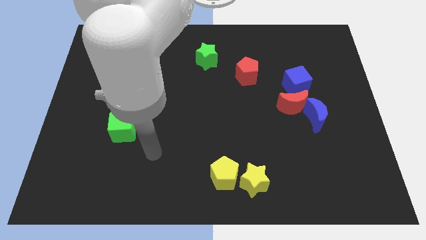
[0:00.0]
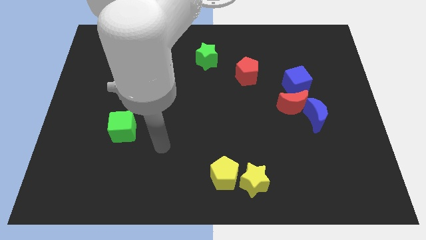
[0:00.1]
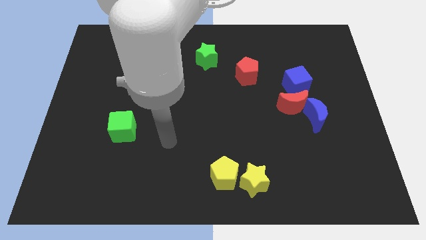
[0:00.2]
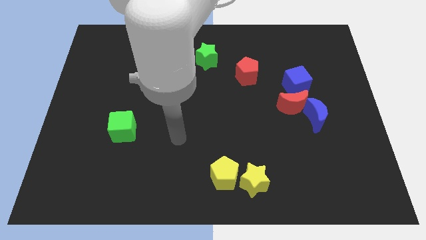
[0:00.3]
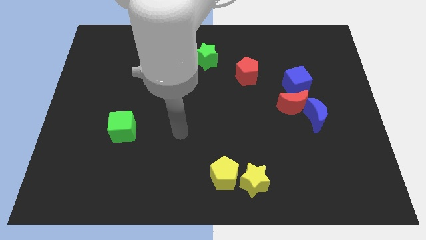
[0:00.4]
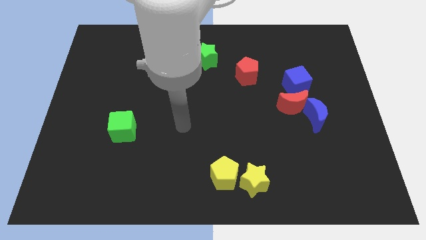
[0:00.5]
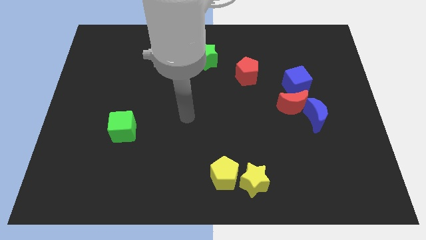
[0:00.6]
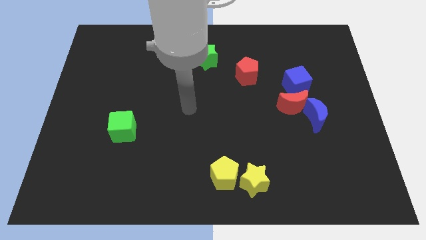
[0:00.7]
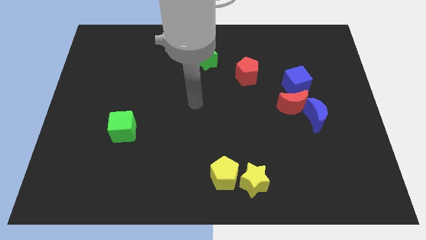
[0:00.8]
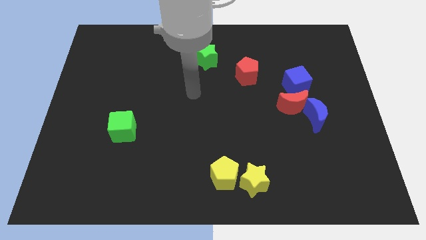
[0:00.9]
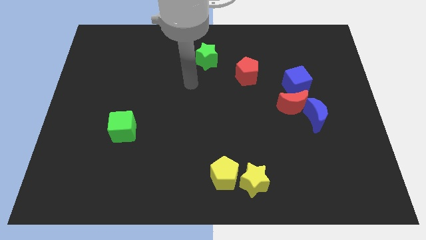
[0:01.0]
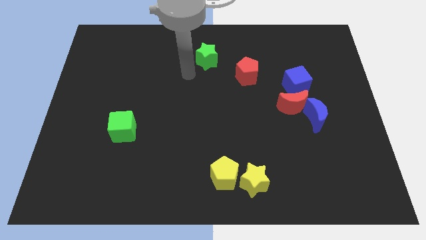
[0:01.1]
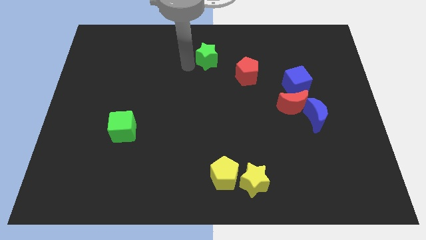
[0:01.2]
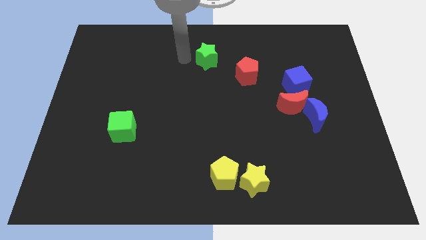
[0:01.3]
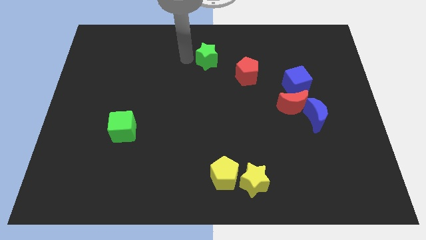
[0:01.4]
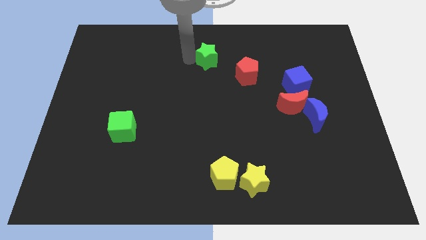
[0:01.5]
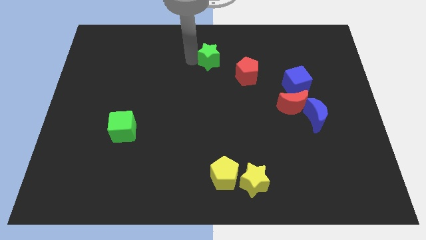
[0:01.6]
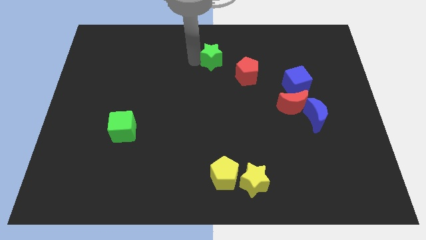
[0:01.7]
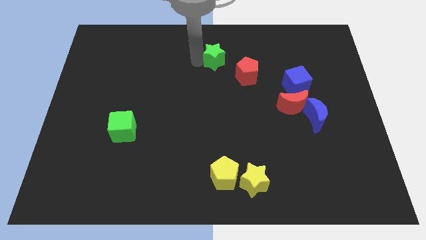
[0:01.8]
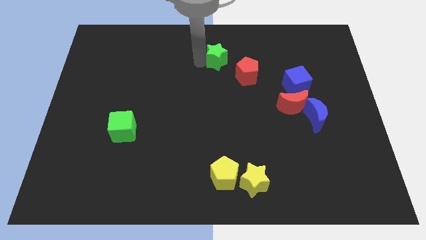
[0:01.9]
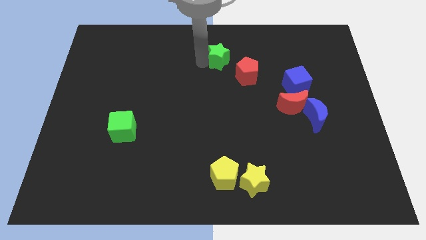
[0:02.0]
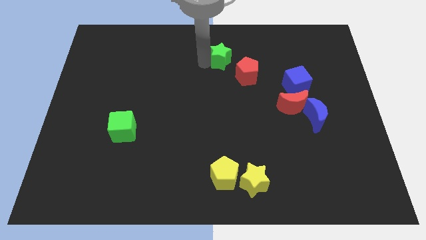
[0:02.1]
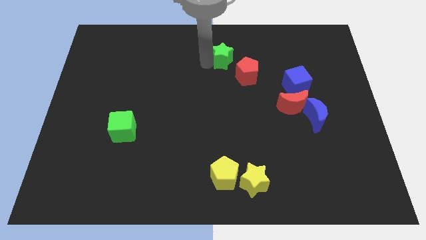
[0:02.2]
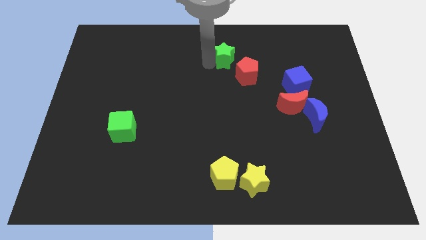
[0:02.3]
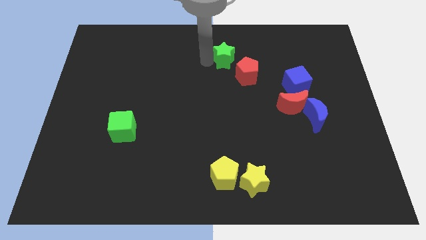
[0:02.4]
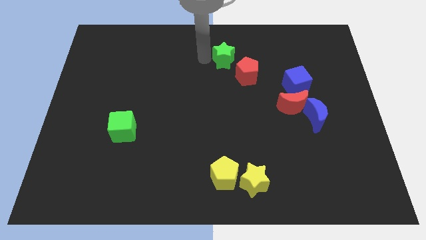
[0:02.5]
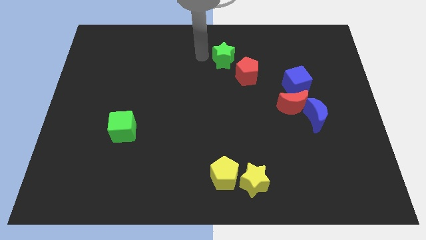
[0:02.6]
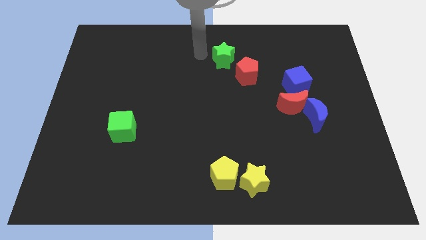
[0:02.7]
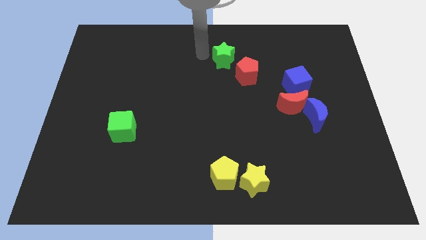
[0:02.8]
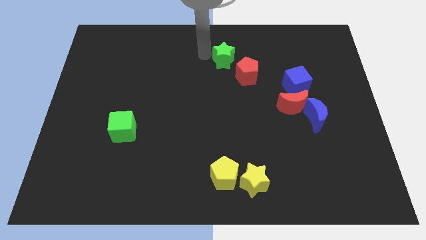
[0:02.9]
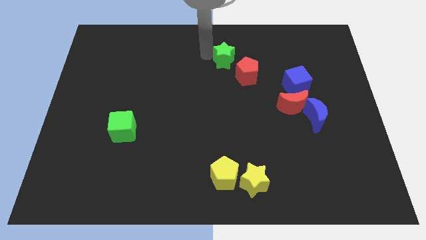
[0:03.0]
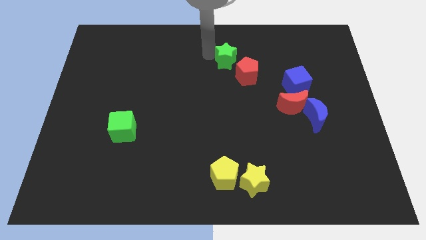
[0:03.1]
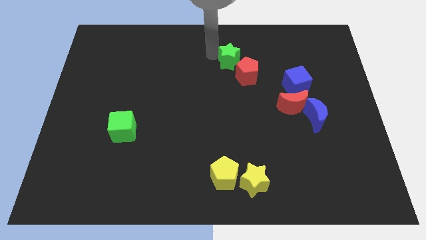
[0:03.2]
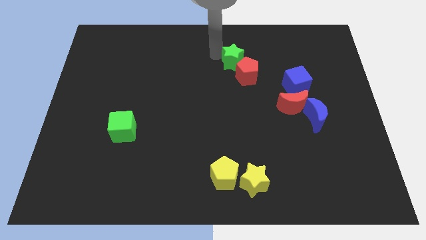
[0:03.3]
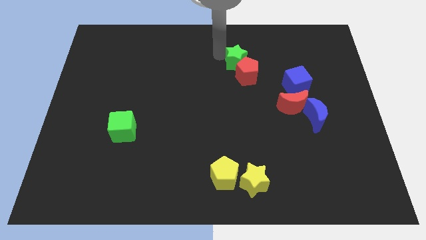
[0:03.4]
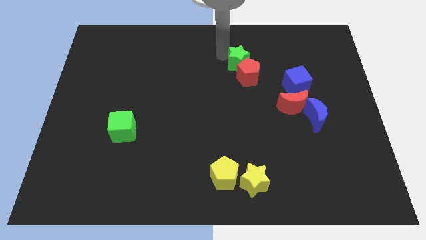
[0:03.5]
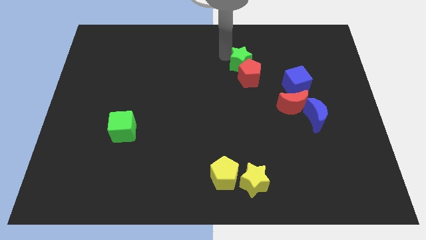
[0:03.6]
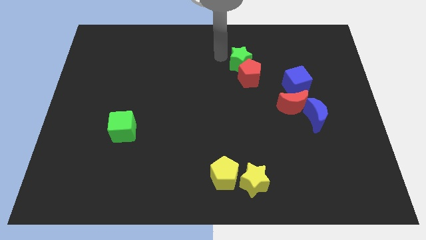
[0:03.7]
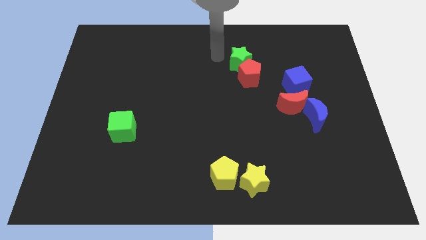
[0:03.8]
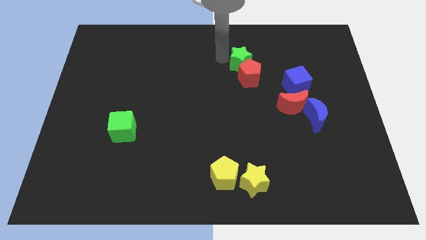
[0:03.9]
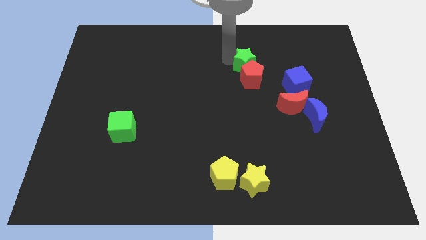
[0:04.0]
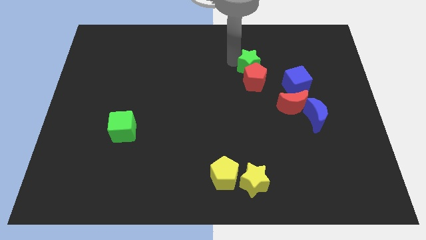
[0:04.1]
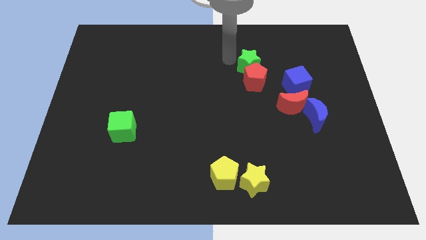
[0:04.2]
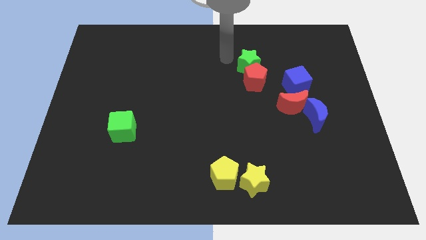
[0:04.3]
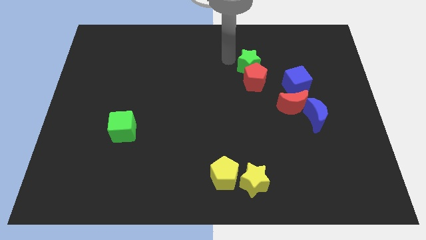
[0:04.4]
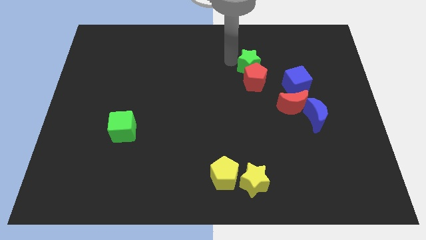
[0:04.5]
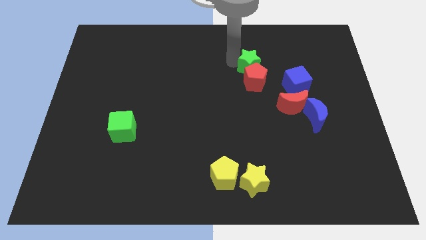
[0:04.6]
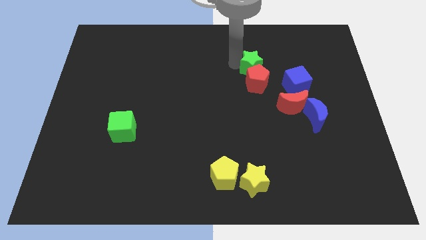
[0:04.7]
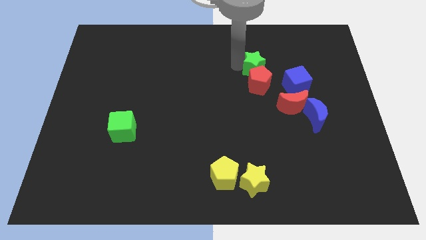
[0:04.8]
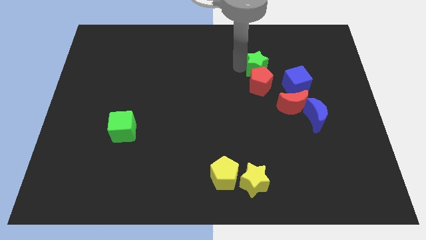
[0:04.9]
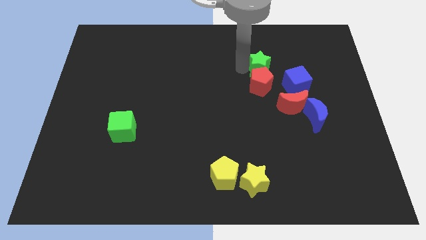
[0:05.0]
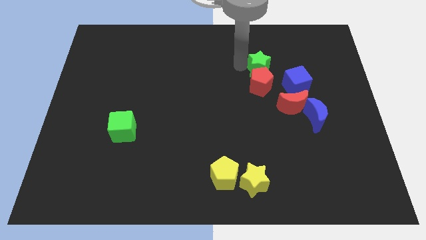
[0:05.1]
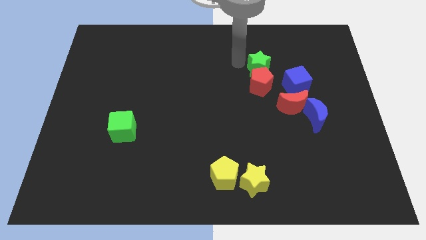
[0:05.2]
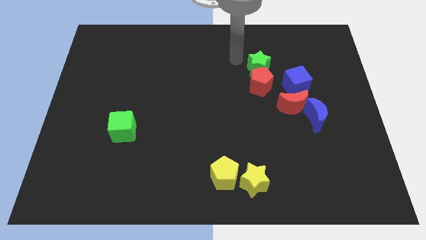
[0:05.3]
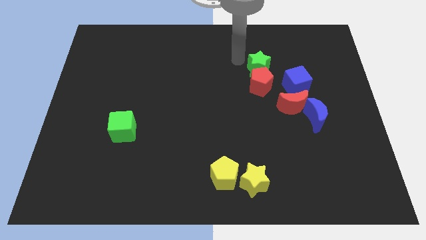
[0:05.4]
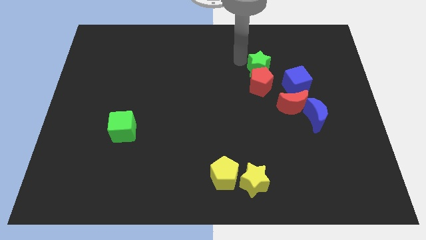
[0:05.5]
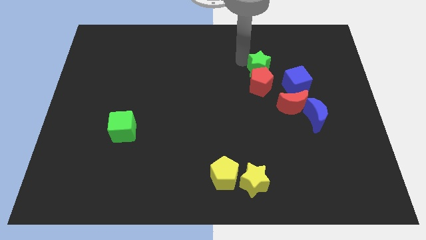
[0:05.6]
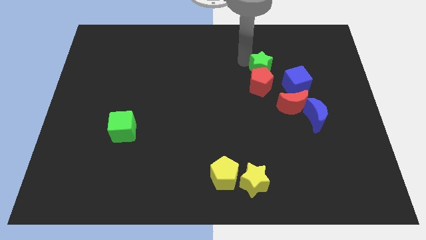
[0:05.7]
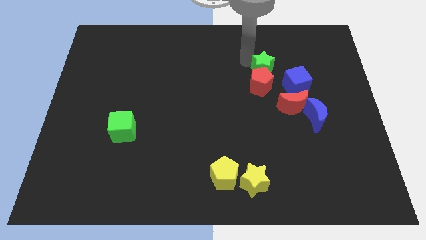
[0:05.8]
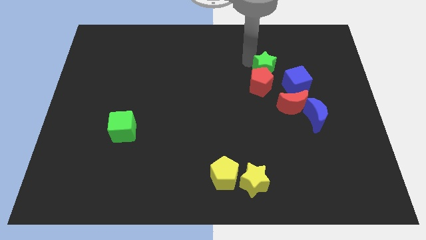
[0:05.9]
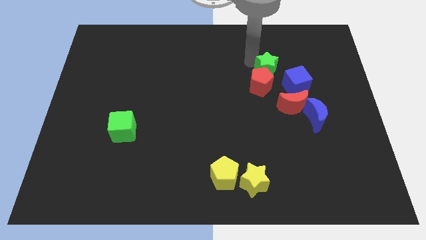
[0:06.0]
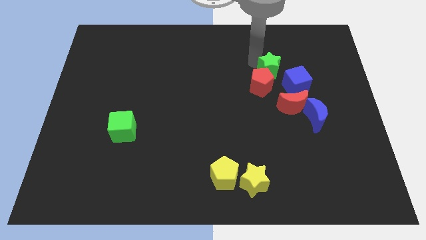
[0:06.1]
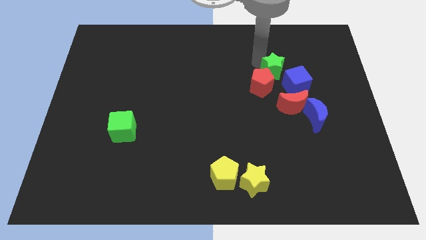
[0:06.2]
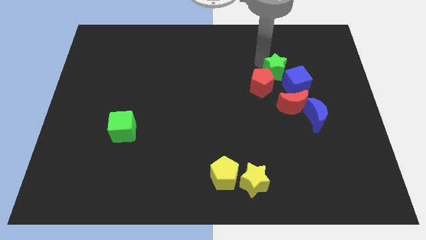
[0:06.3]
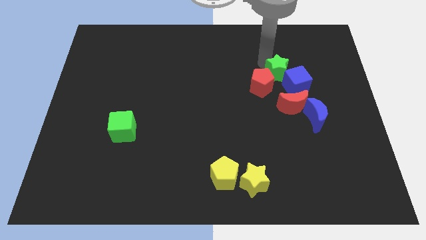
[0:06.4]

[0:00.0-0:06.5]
slide the green star towards the blue cube

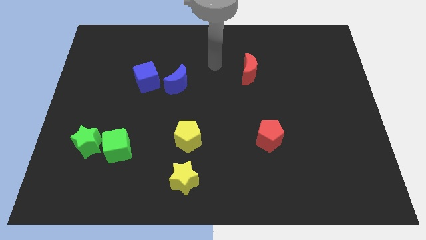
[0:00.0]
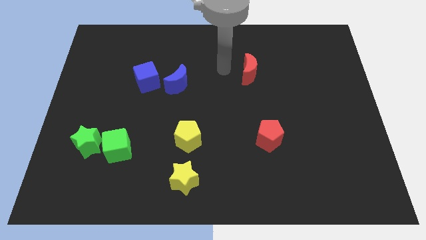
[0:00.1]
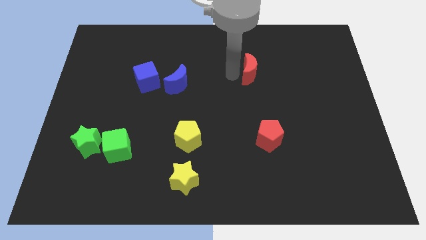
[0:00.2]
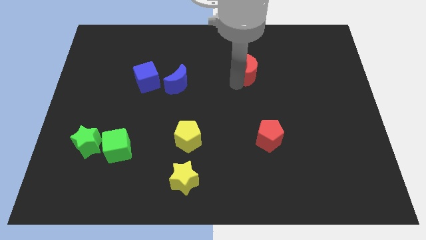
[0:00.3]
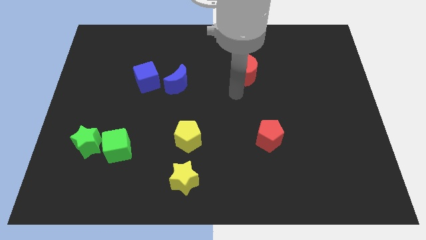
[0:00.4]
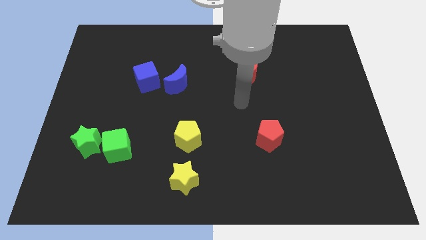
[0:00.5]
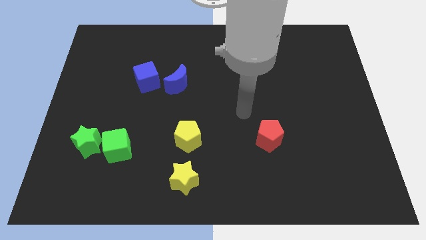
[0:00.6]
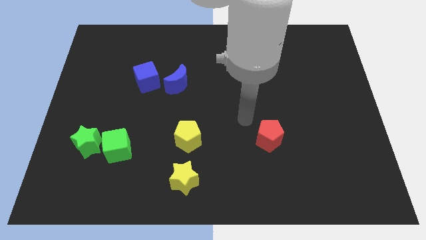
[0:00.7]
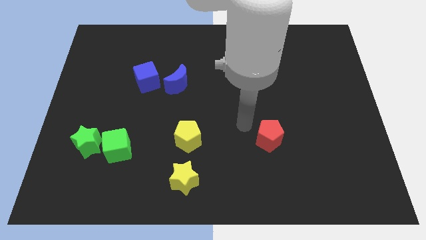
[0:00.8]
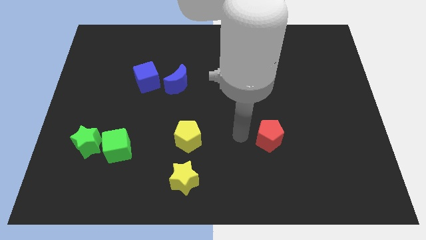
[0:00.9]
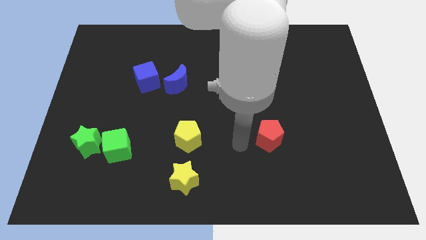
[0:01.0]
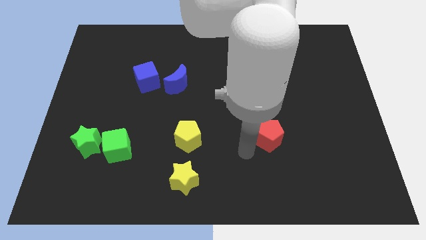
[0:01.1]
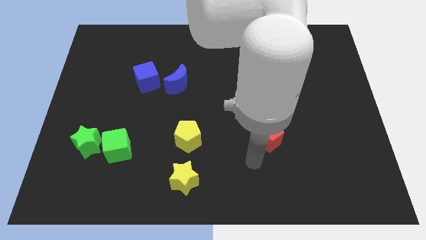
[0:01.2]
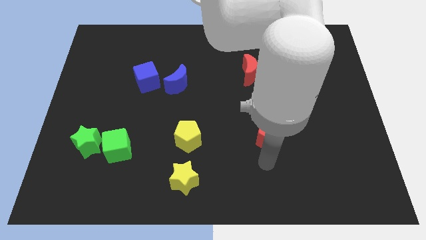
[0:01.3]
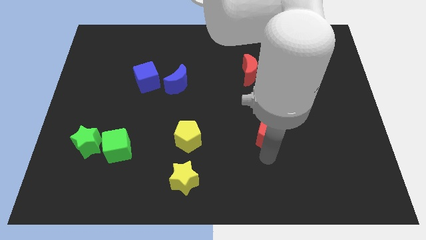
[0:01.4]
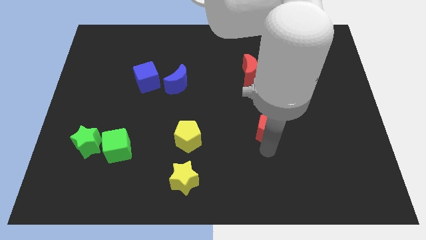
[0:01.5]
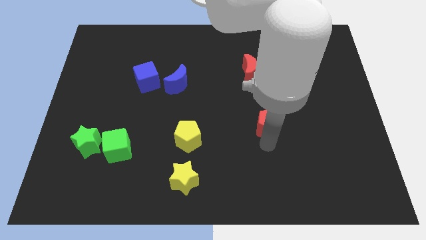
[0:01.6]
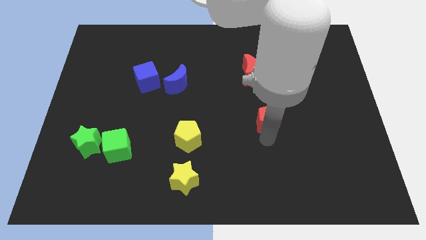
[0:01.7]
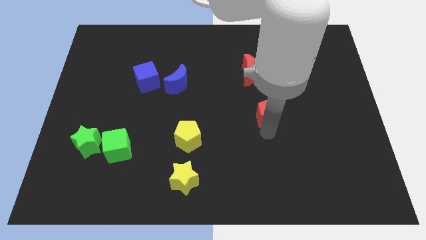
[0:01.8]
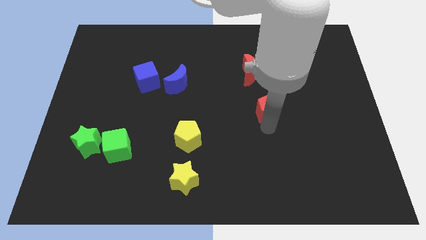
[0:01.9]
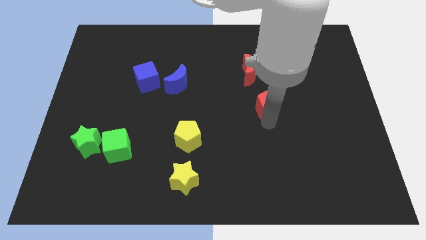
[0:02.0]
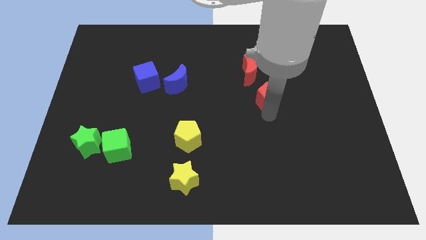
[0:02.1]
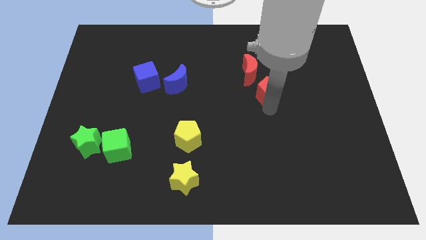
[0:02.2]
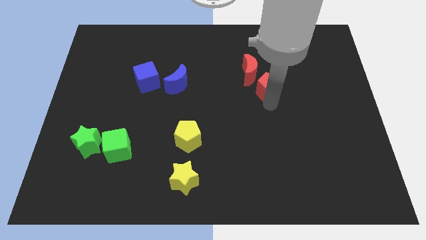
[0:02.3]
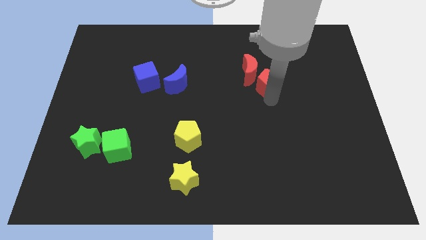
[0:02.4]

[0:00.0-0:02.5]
put the red pentagon next to the red moon
